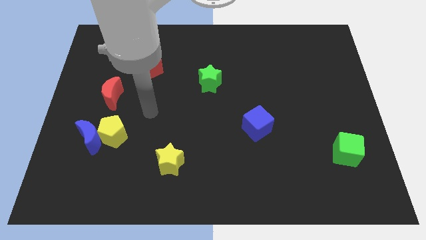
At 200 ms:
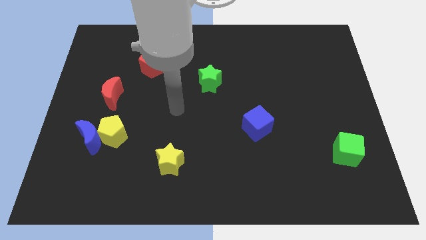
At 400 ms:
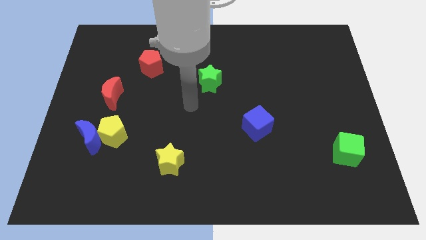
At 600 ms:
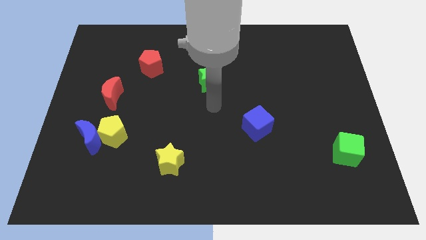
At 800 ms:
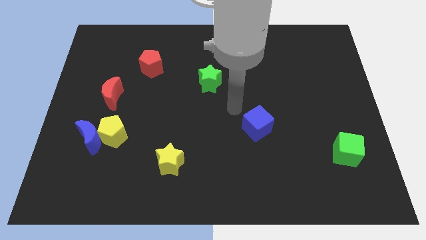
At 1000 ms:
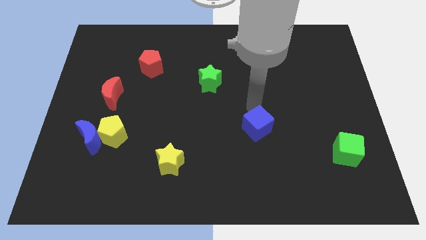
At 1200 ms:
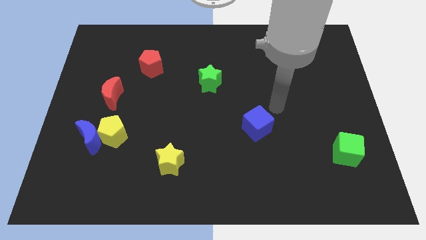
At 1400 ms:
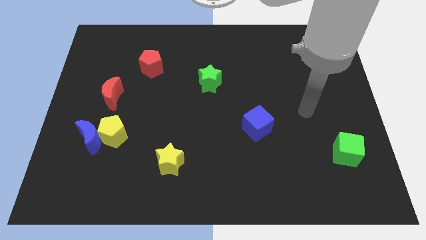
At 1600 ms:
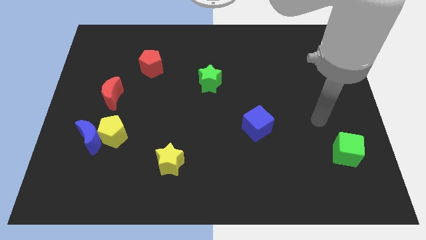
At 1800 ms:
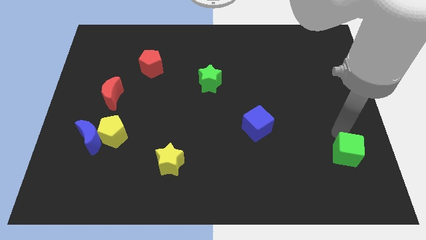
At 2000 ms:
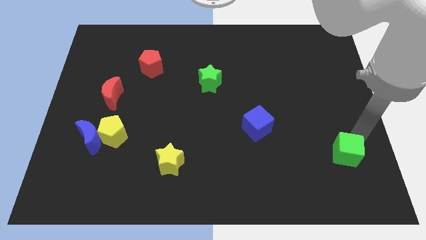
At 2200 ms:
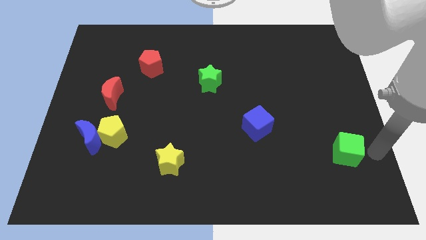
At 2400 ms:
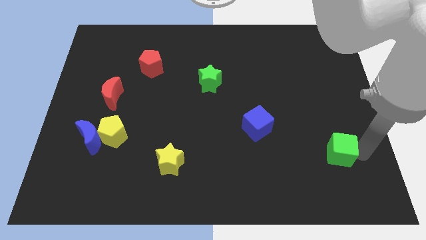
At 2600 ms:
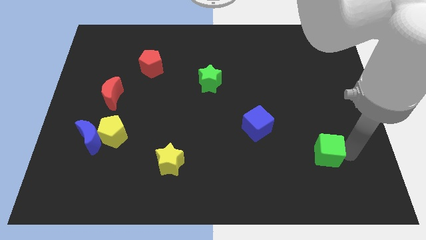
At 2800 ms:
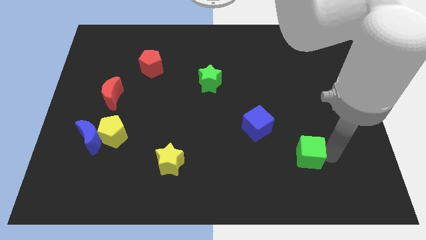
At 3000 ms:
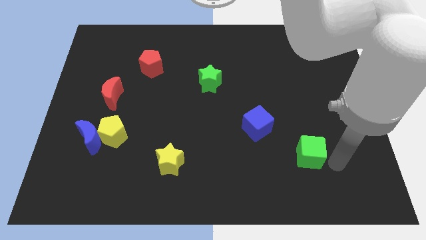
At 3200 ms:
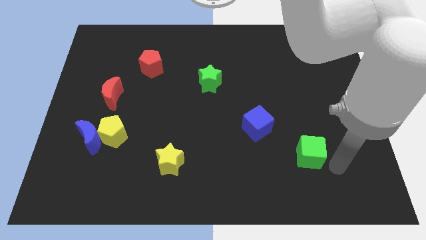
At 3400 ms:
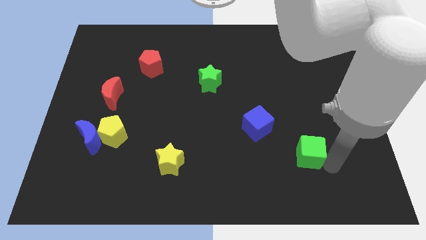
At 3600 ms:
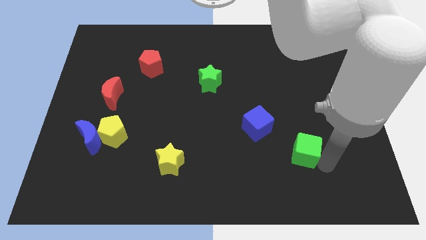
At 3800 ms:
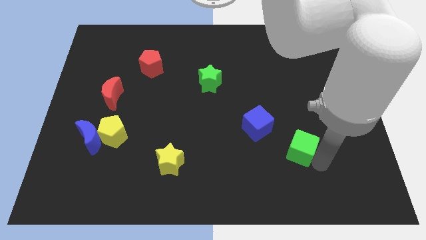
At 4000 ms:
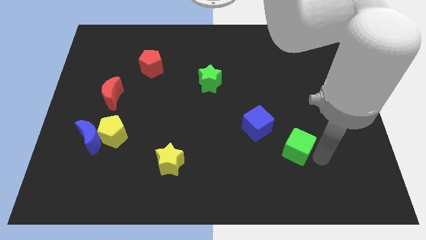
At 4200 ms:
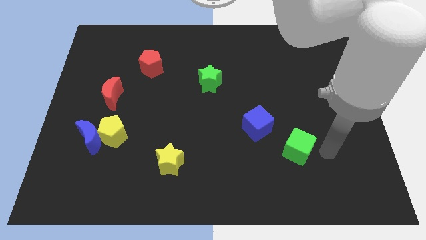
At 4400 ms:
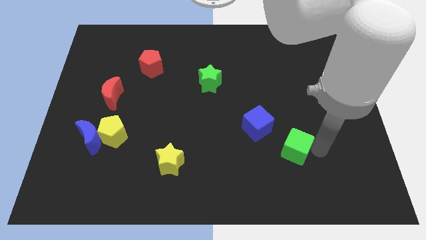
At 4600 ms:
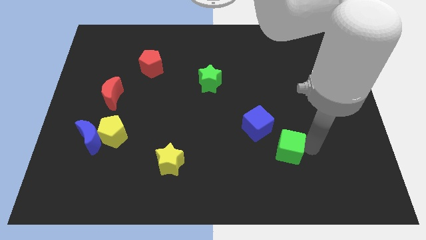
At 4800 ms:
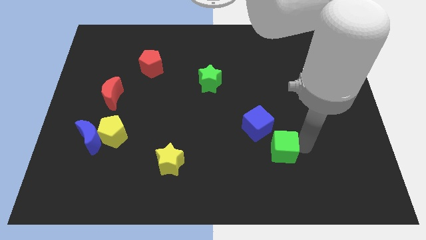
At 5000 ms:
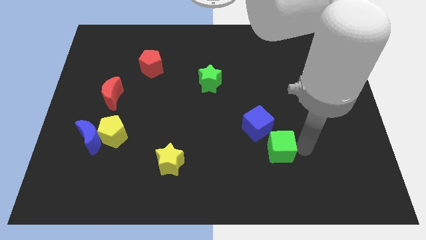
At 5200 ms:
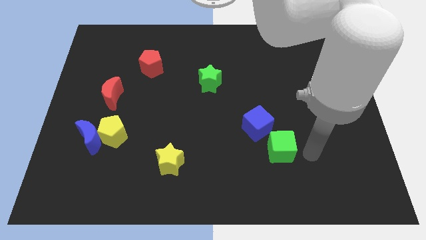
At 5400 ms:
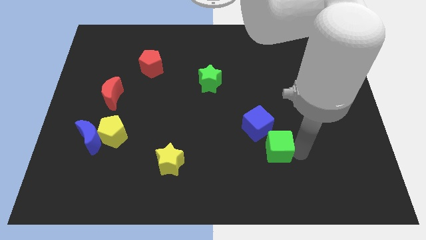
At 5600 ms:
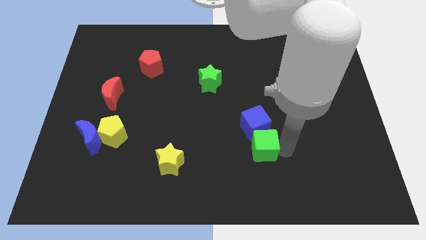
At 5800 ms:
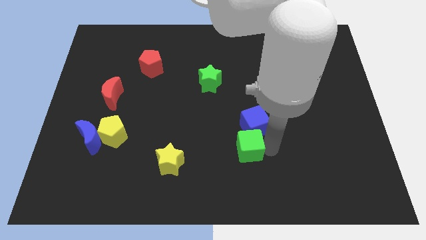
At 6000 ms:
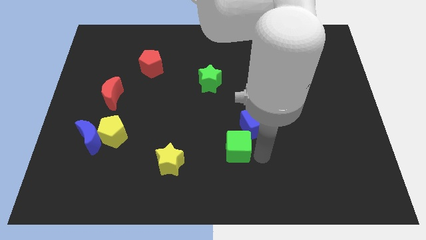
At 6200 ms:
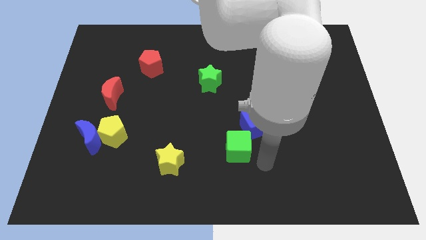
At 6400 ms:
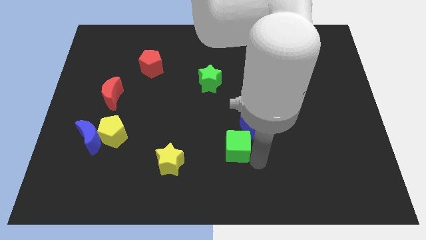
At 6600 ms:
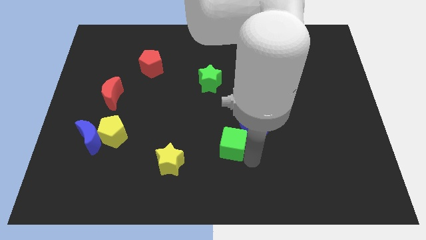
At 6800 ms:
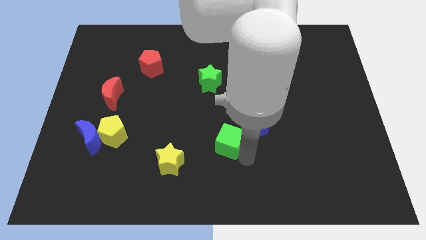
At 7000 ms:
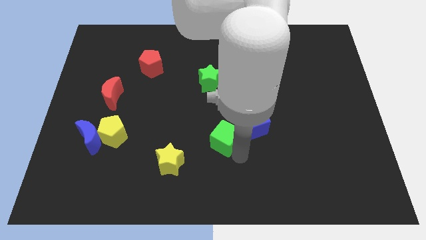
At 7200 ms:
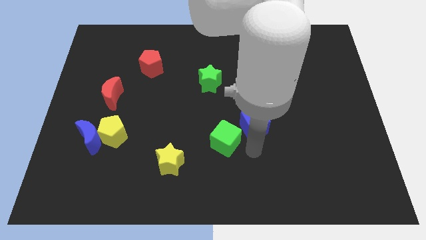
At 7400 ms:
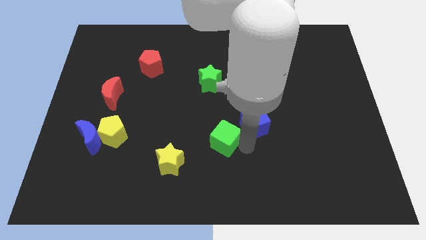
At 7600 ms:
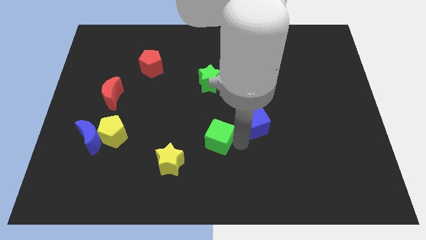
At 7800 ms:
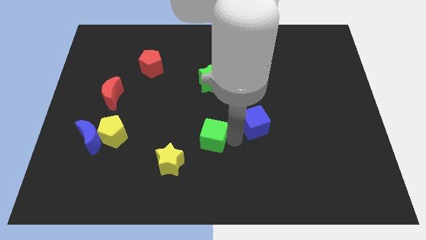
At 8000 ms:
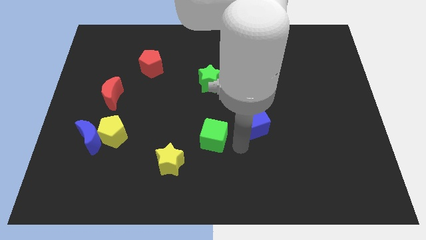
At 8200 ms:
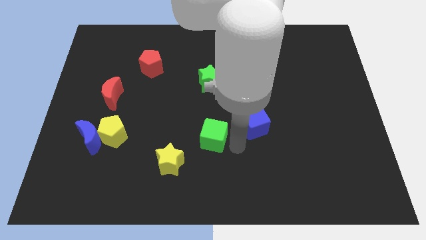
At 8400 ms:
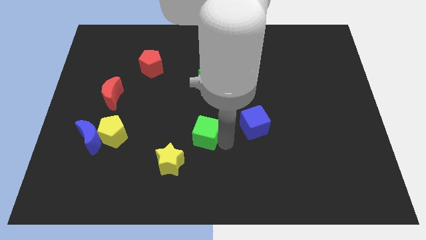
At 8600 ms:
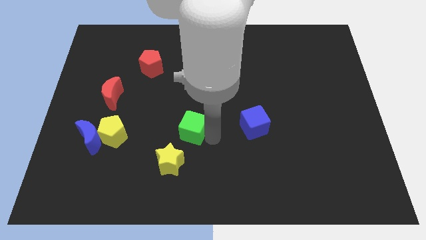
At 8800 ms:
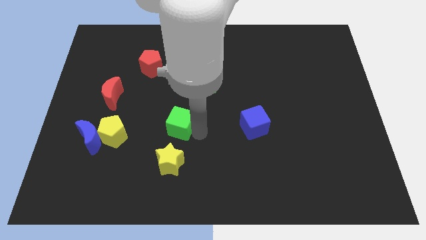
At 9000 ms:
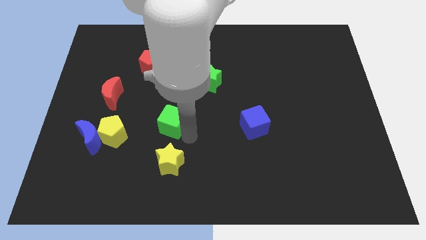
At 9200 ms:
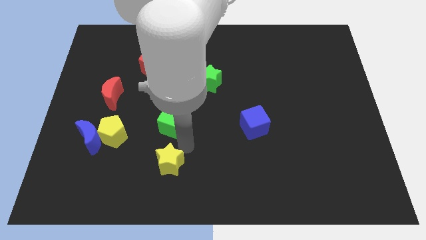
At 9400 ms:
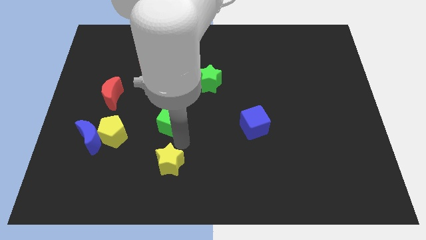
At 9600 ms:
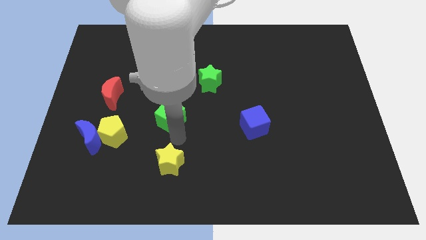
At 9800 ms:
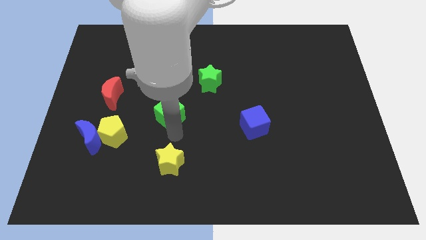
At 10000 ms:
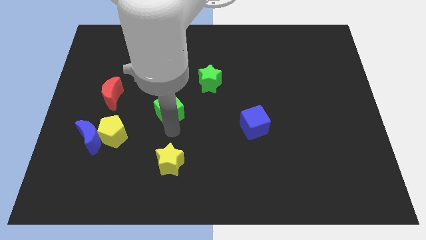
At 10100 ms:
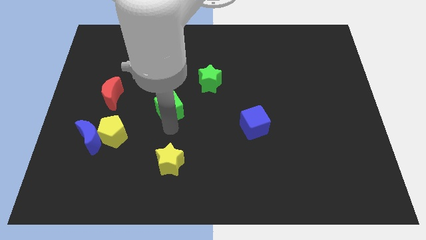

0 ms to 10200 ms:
slide the green cube to the right side of the red moon

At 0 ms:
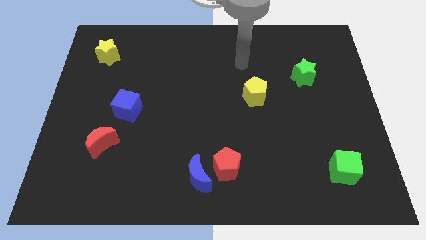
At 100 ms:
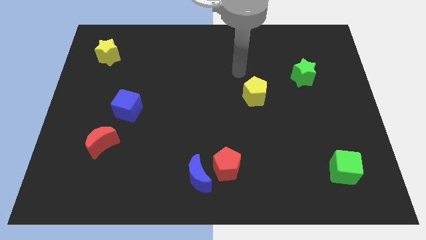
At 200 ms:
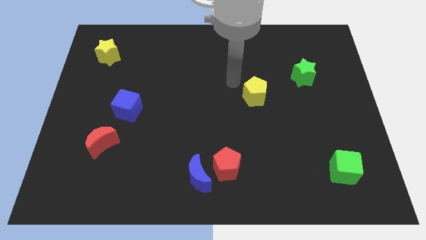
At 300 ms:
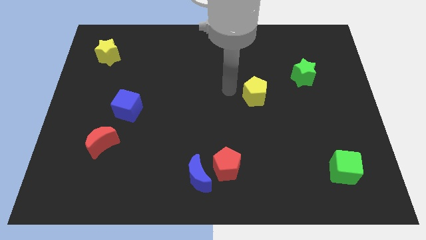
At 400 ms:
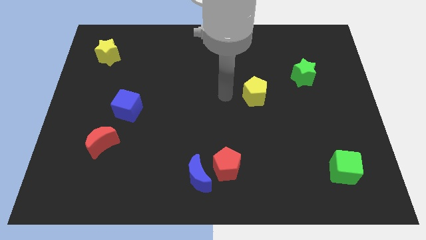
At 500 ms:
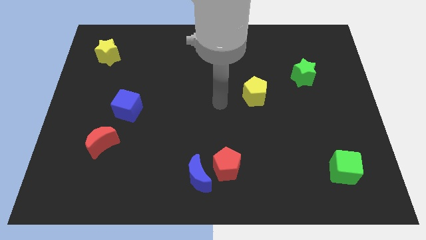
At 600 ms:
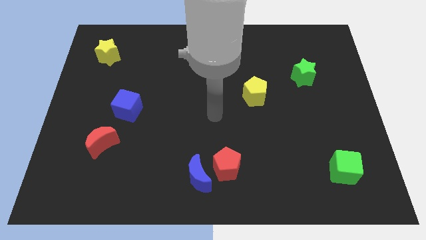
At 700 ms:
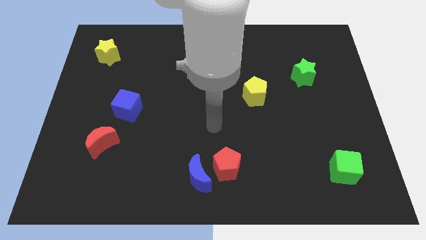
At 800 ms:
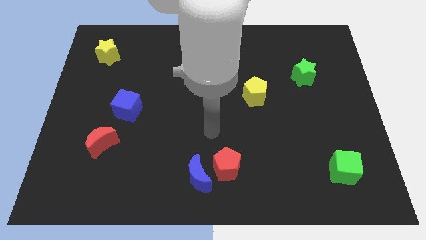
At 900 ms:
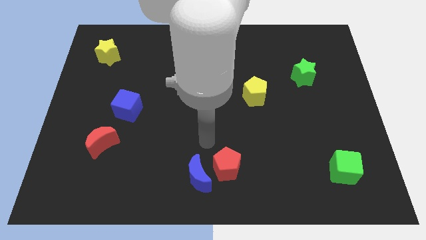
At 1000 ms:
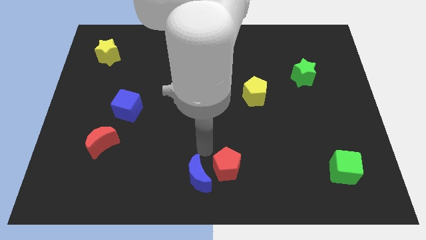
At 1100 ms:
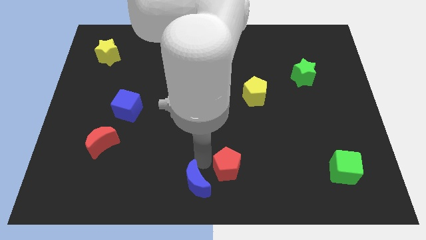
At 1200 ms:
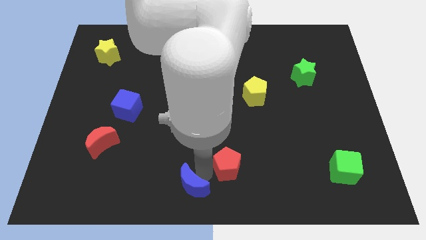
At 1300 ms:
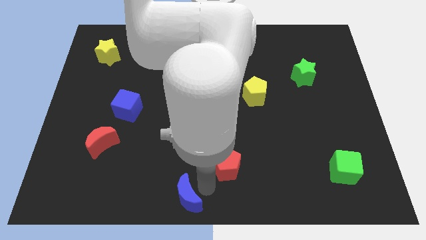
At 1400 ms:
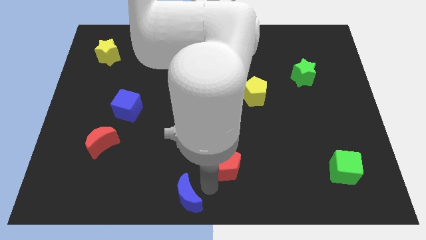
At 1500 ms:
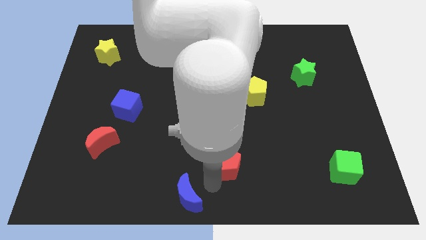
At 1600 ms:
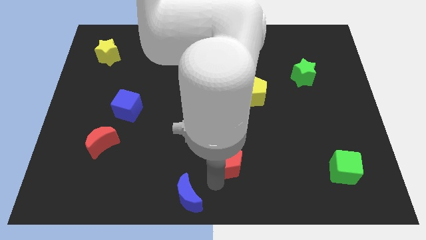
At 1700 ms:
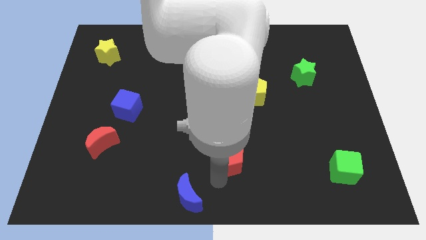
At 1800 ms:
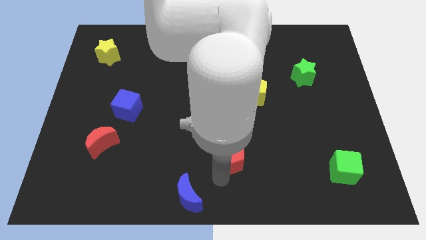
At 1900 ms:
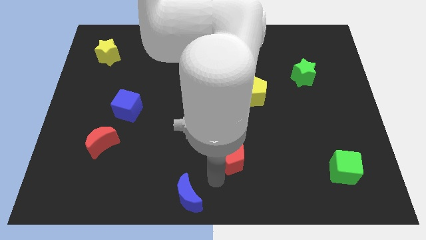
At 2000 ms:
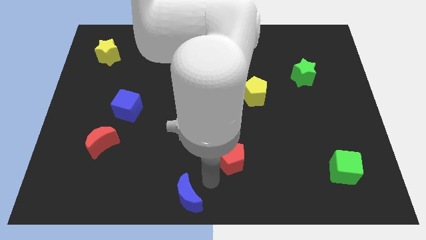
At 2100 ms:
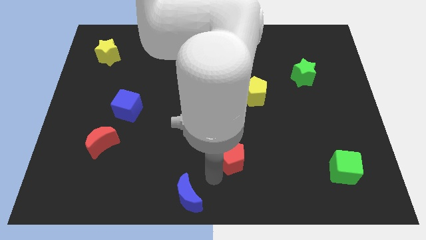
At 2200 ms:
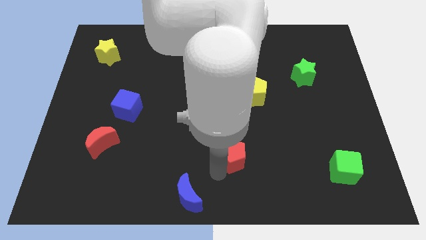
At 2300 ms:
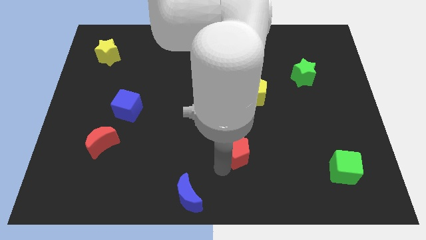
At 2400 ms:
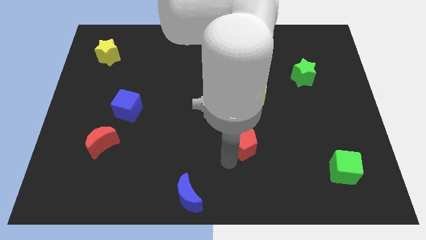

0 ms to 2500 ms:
move the red pentagon below the yellow pentagon

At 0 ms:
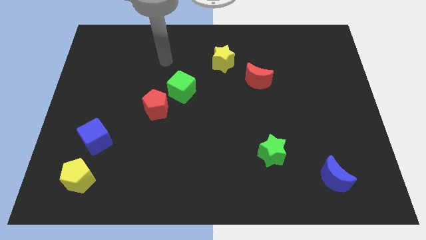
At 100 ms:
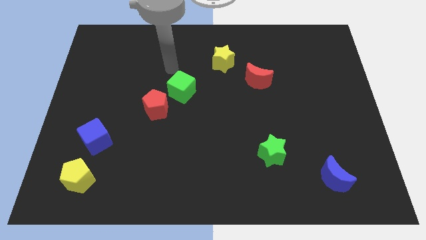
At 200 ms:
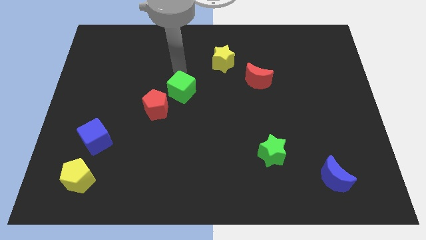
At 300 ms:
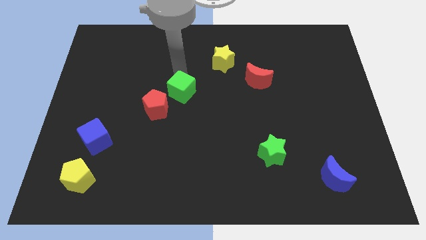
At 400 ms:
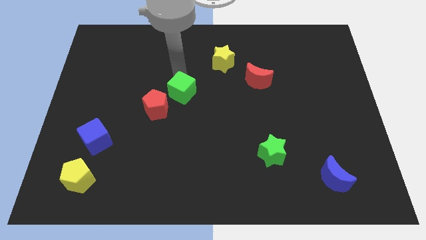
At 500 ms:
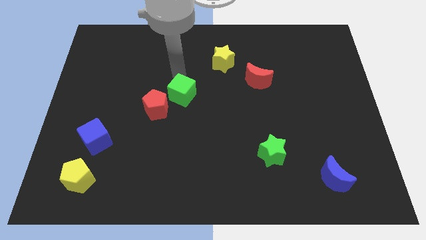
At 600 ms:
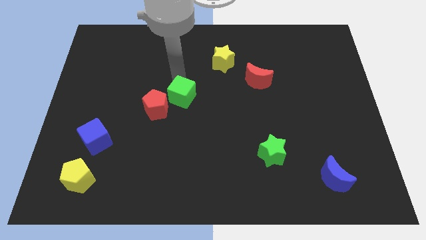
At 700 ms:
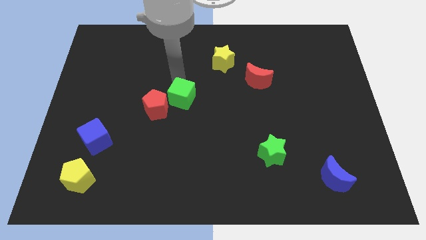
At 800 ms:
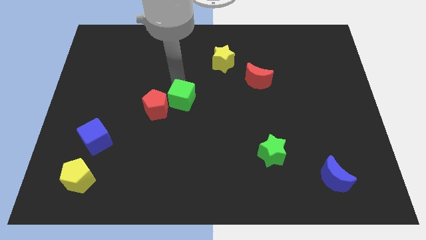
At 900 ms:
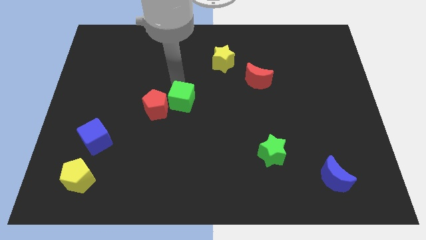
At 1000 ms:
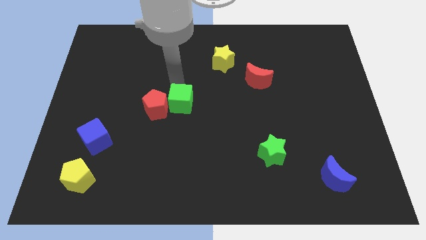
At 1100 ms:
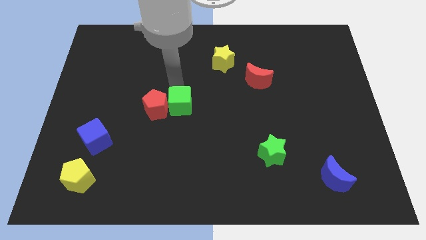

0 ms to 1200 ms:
push the green cube diagonally down and to the right of the red pentagon
